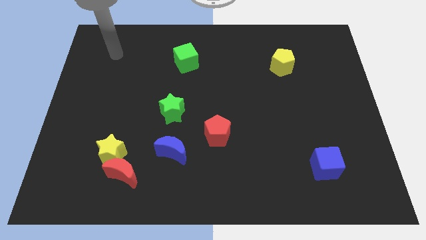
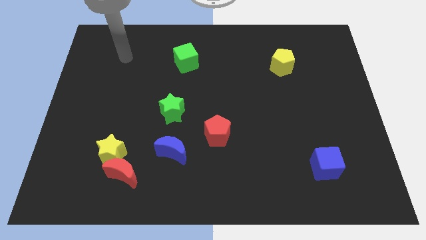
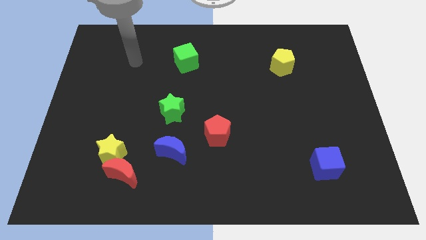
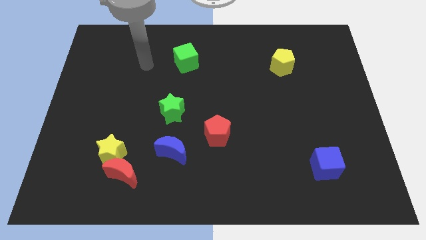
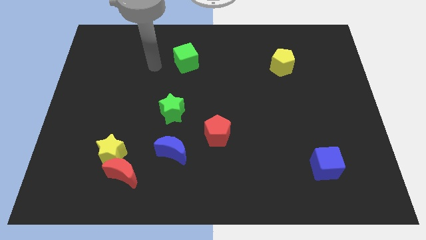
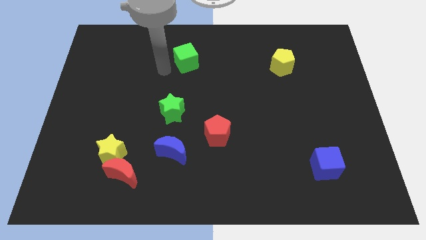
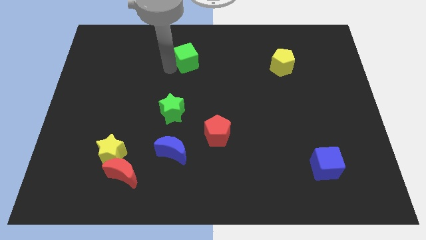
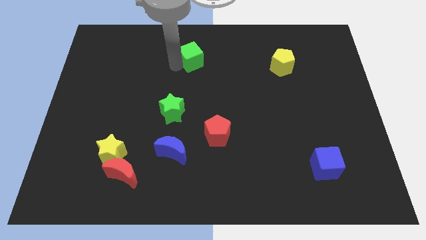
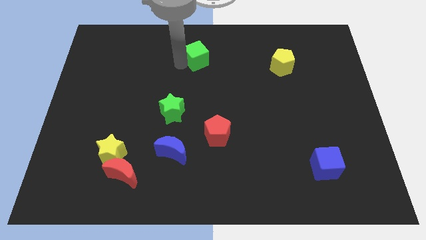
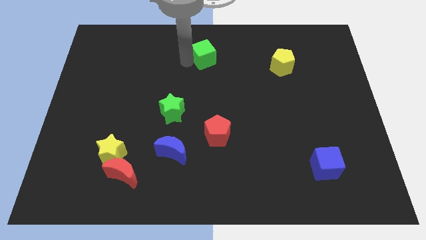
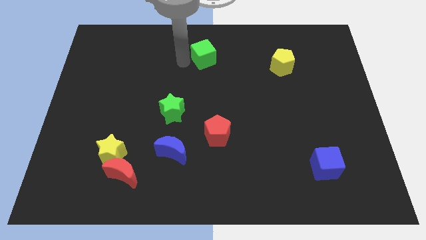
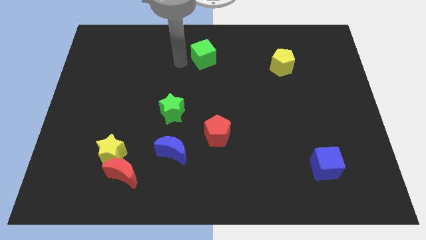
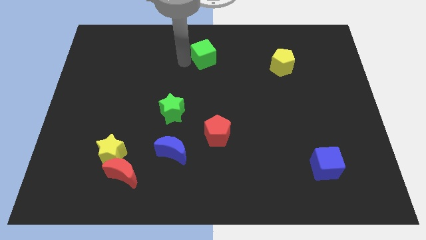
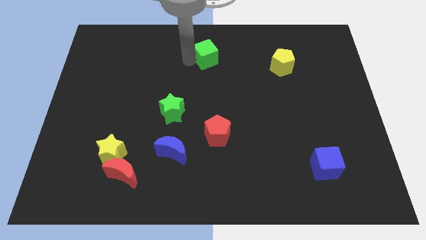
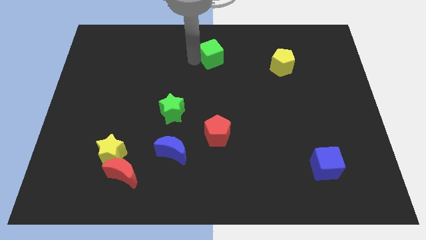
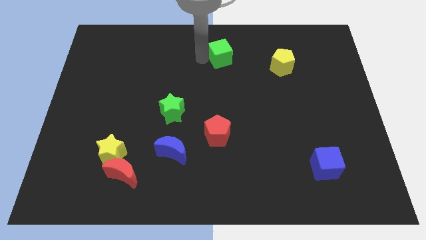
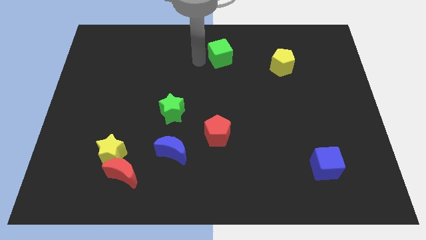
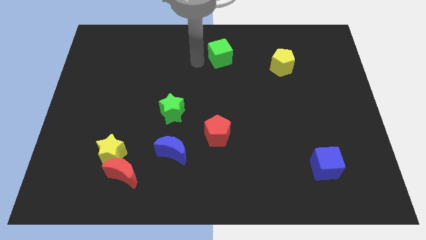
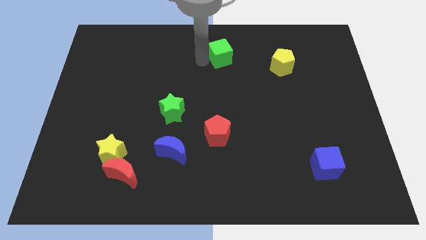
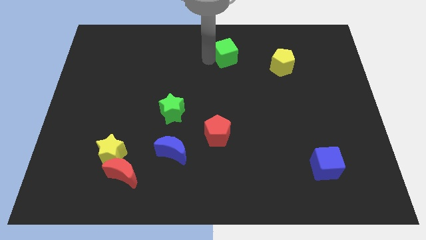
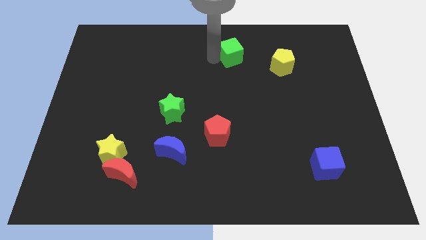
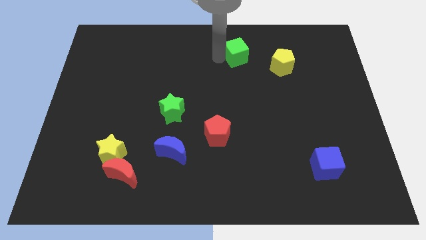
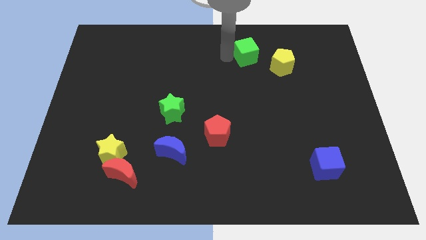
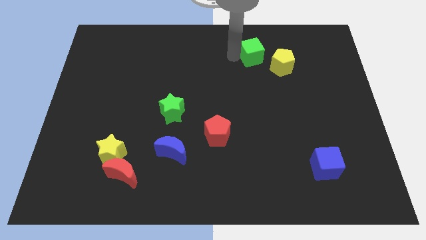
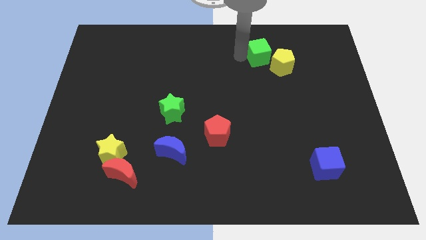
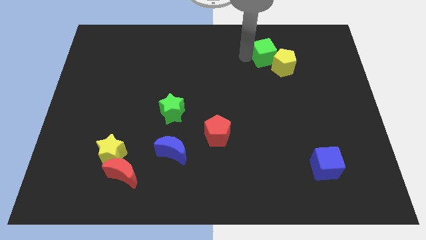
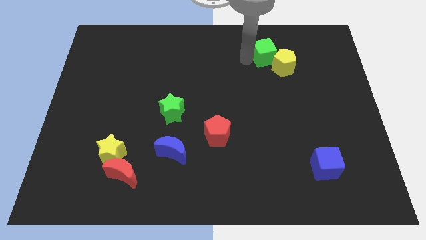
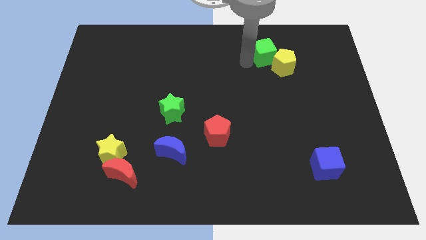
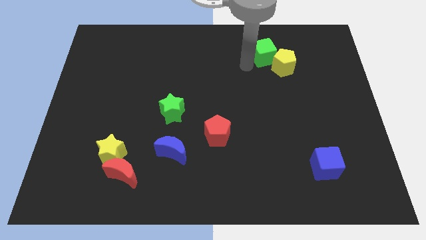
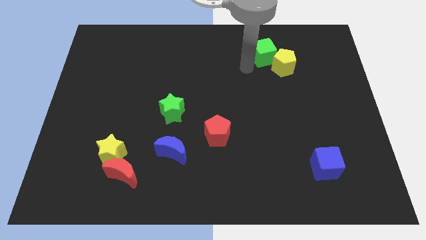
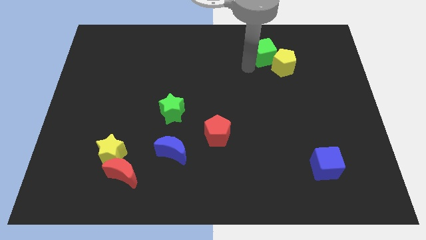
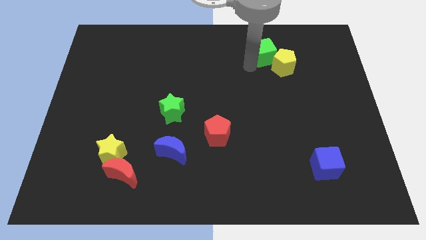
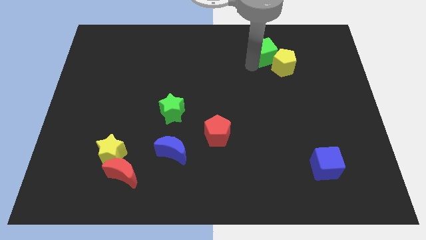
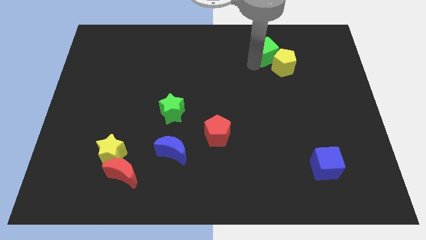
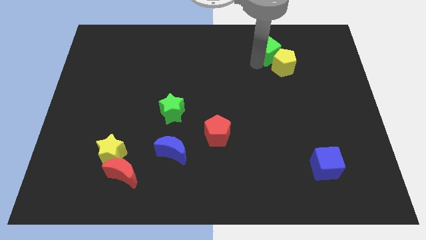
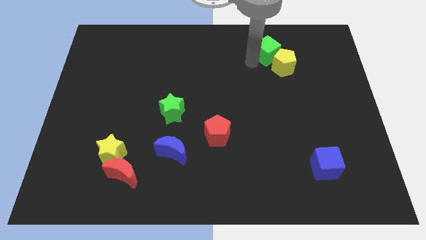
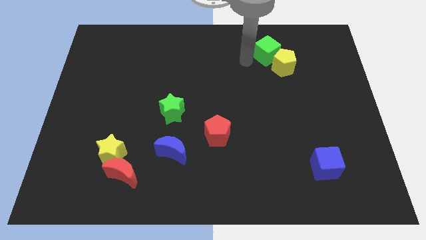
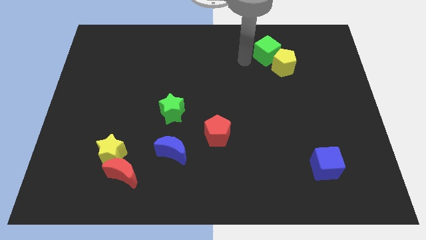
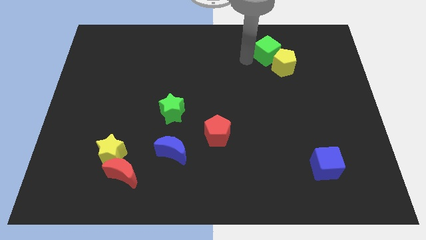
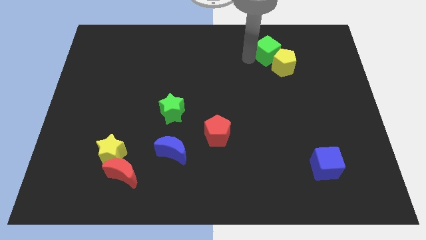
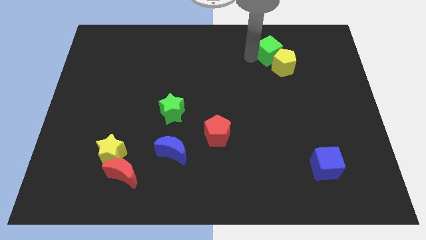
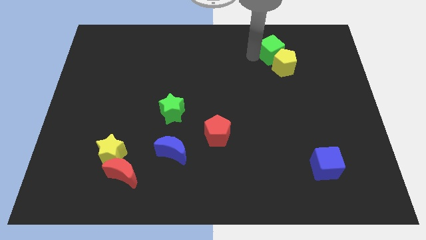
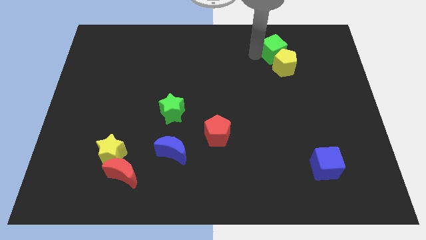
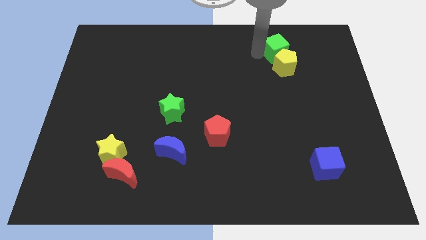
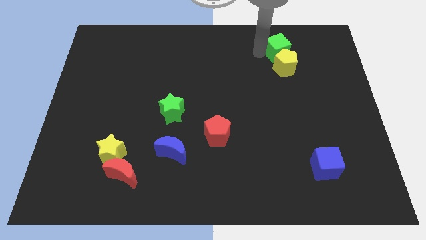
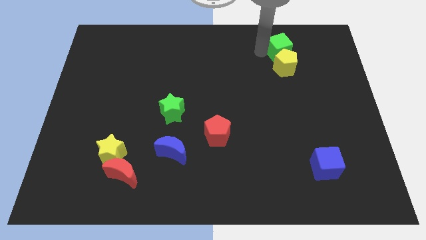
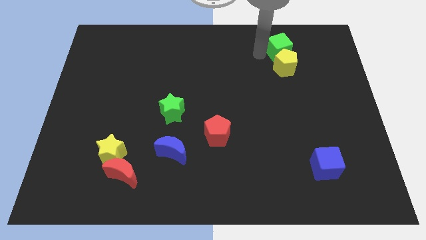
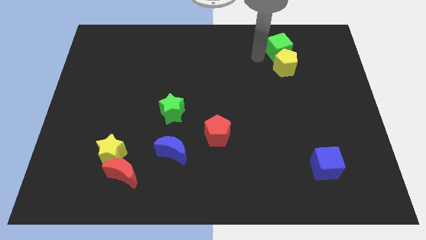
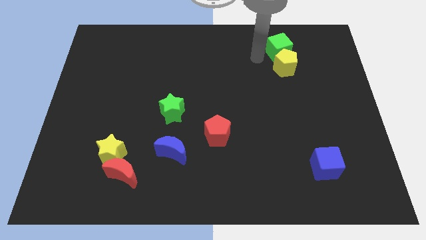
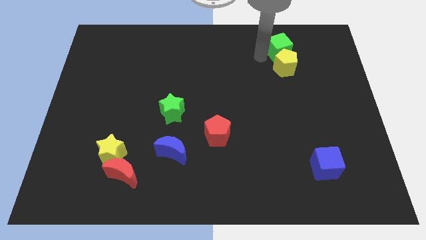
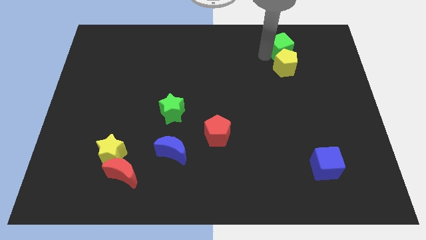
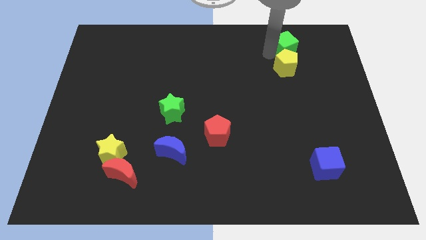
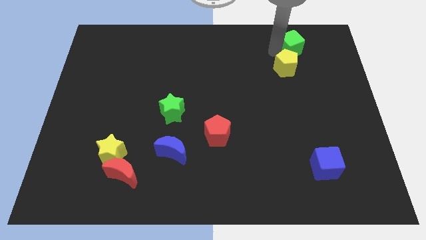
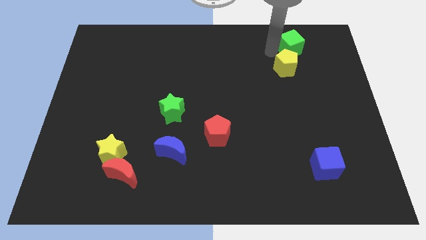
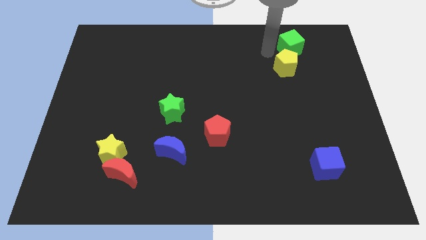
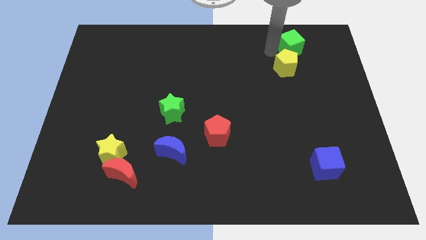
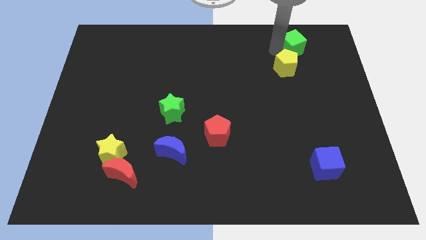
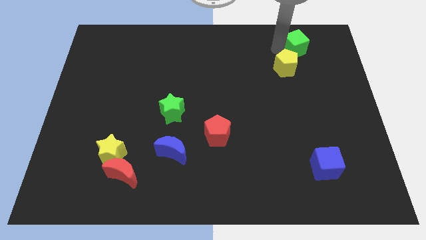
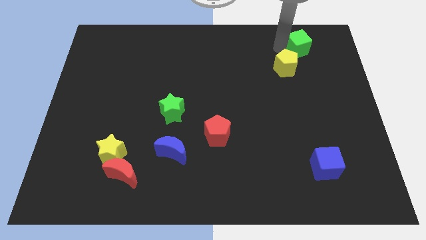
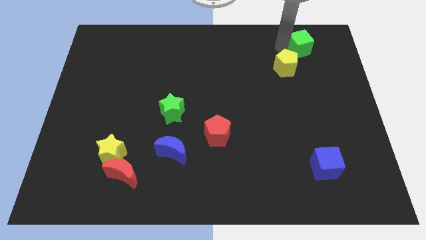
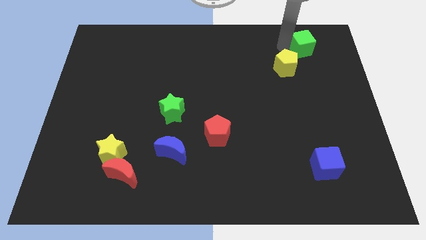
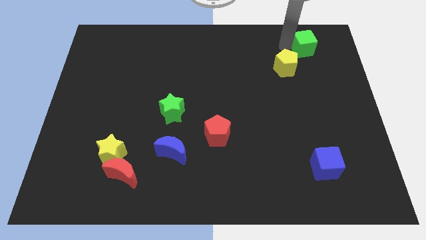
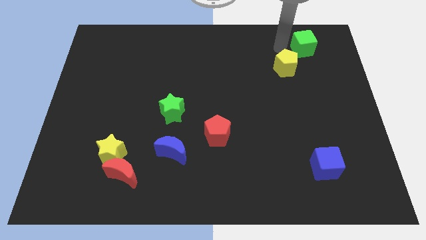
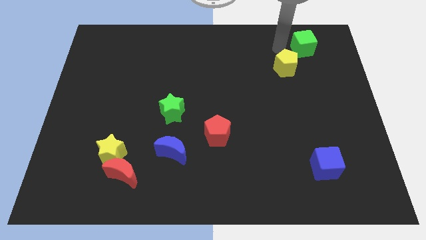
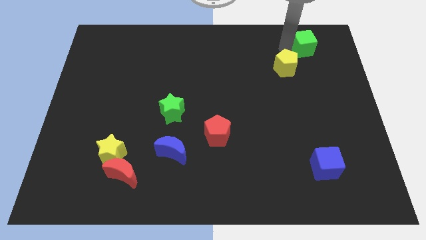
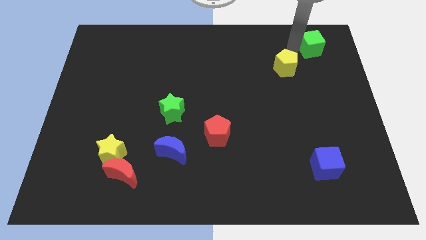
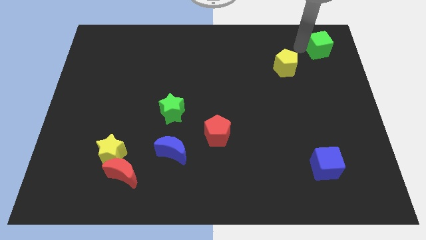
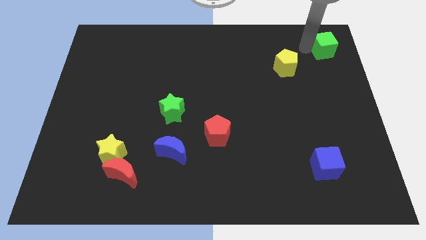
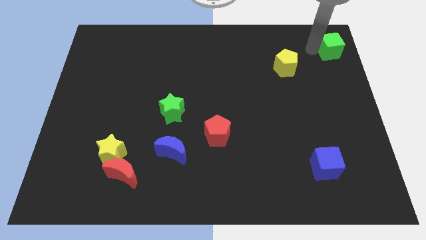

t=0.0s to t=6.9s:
slide the green cube to the top right of the board
